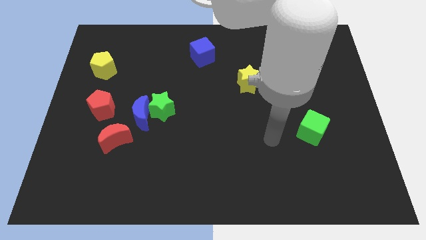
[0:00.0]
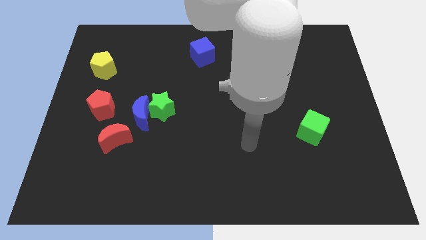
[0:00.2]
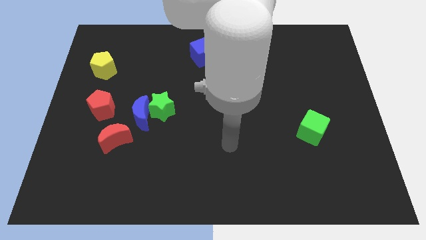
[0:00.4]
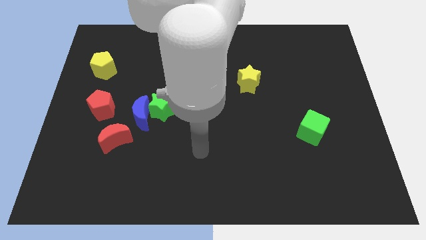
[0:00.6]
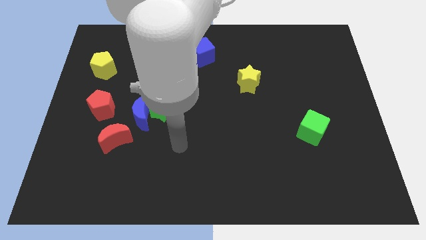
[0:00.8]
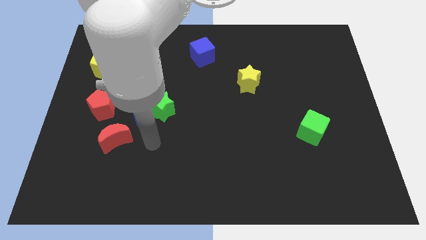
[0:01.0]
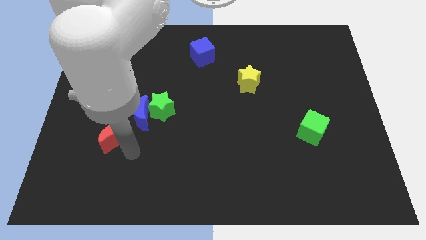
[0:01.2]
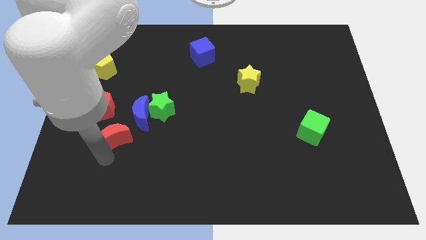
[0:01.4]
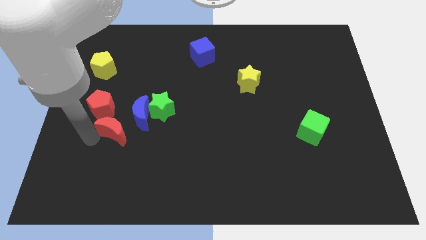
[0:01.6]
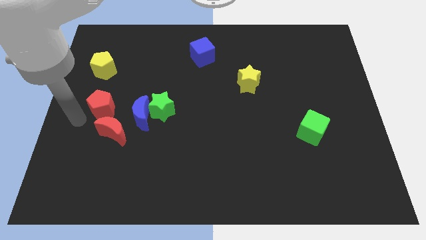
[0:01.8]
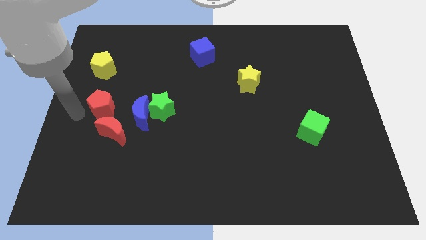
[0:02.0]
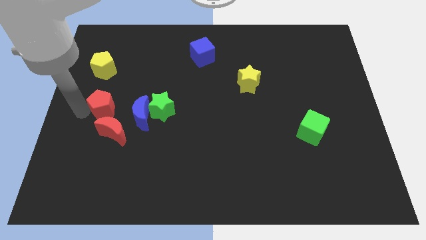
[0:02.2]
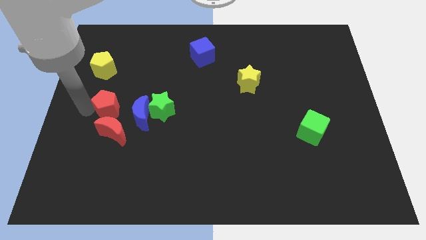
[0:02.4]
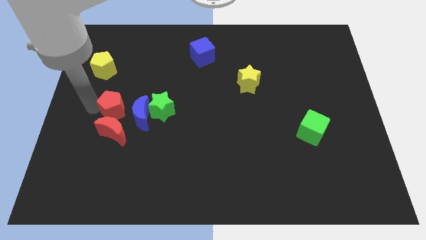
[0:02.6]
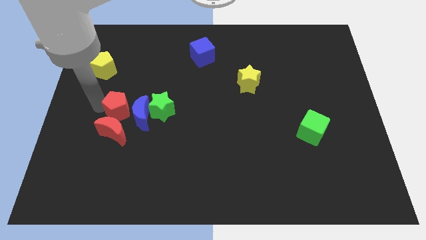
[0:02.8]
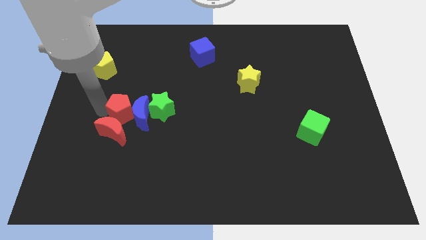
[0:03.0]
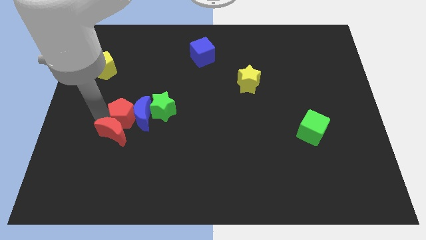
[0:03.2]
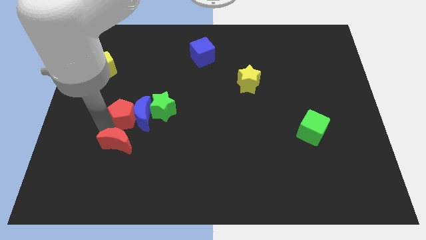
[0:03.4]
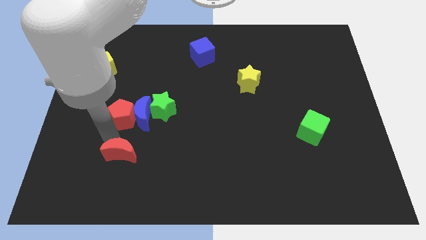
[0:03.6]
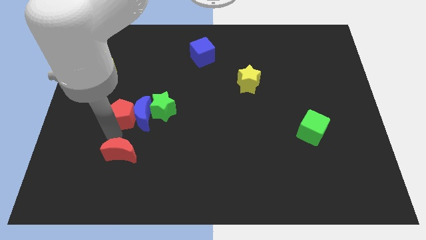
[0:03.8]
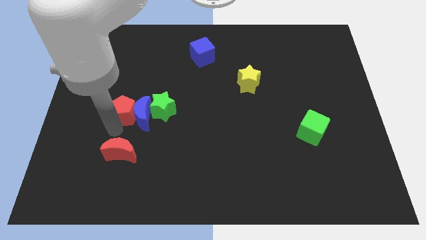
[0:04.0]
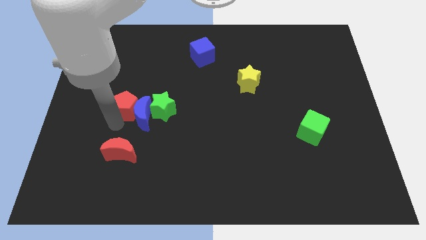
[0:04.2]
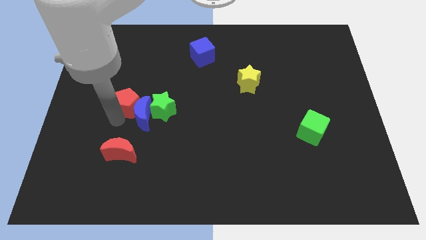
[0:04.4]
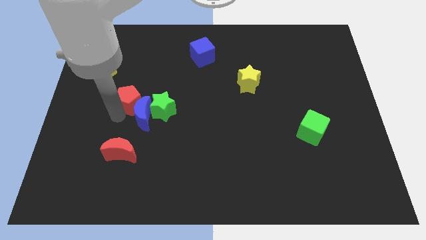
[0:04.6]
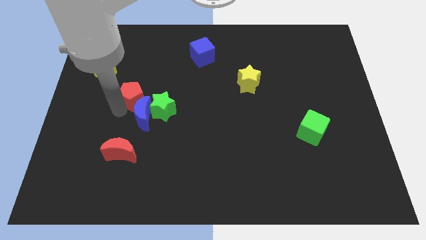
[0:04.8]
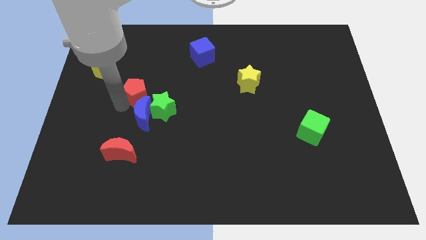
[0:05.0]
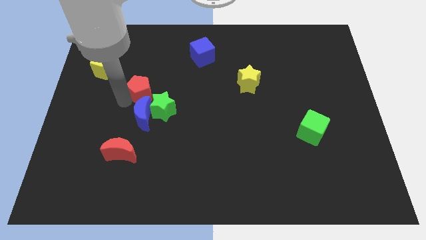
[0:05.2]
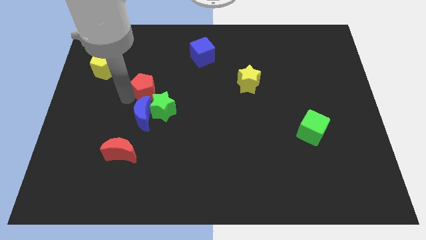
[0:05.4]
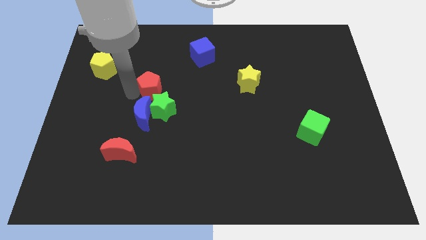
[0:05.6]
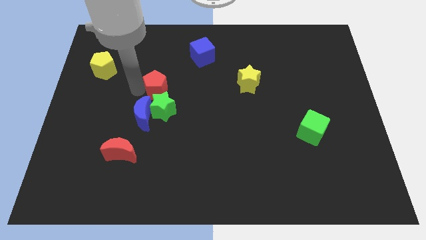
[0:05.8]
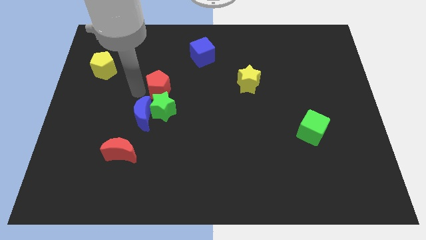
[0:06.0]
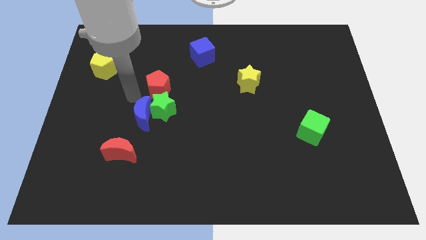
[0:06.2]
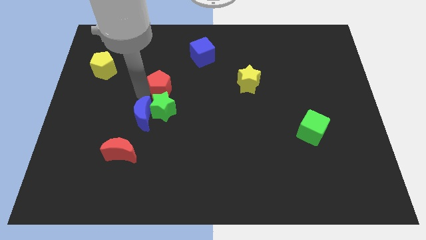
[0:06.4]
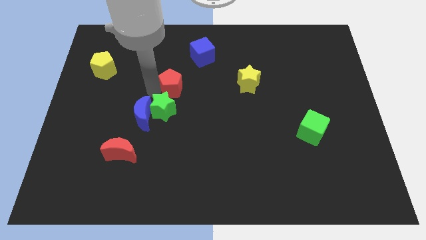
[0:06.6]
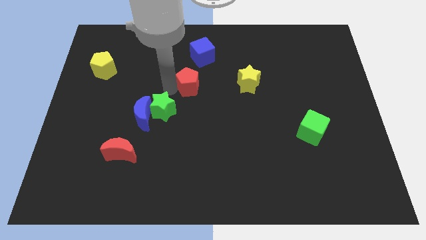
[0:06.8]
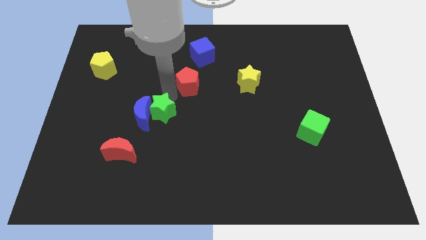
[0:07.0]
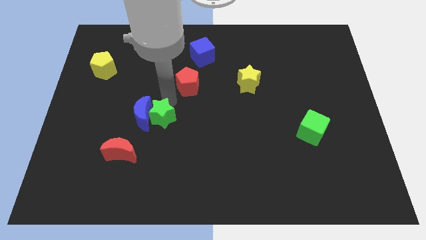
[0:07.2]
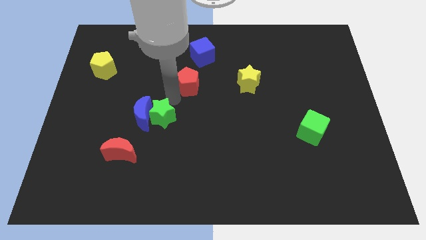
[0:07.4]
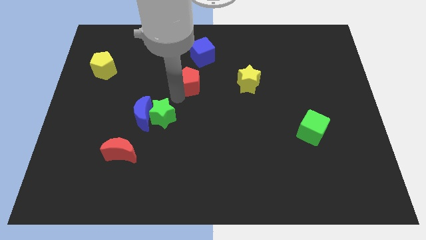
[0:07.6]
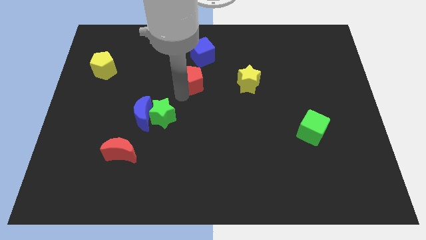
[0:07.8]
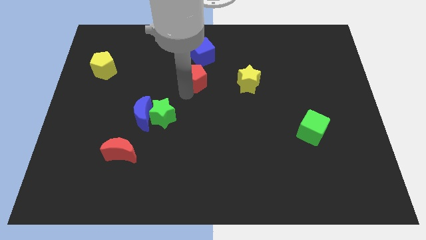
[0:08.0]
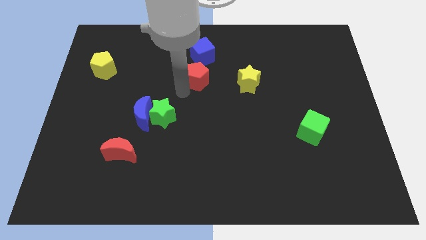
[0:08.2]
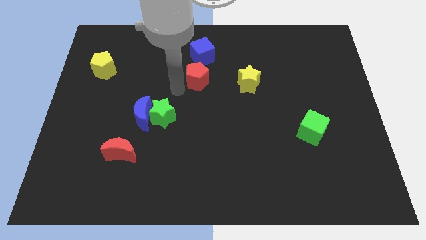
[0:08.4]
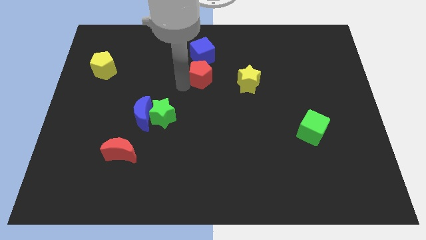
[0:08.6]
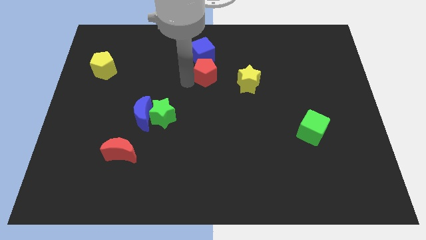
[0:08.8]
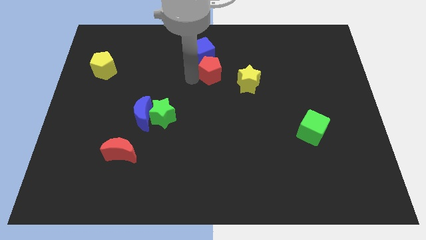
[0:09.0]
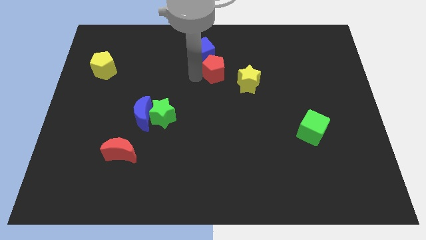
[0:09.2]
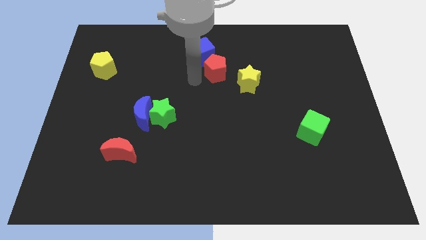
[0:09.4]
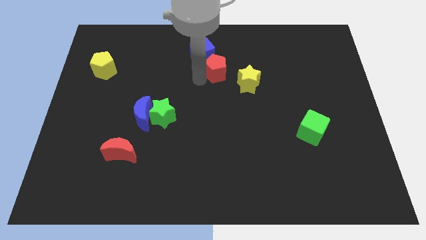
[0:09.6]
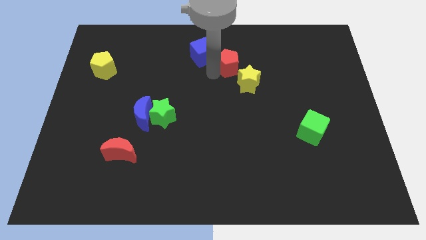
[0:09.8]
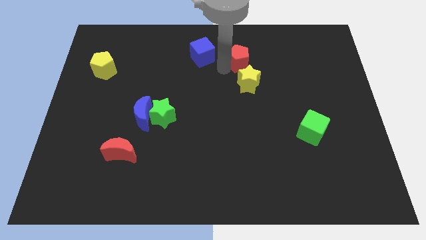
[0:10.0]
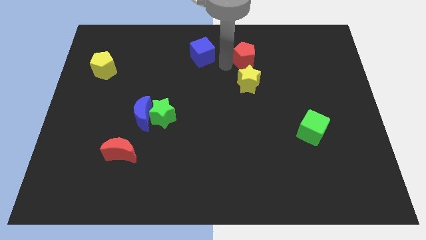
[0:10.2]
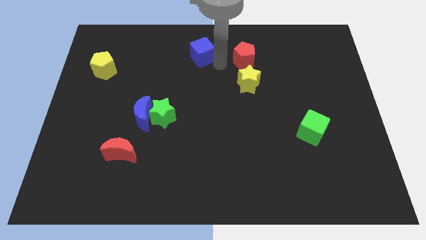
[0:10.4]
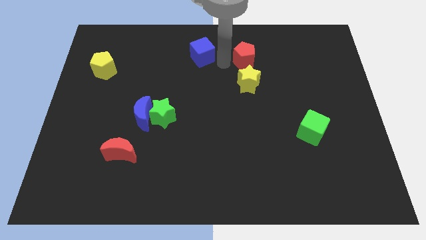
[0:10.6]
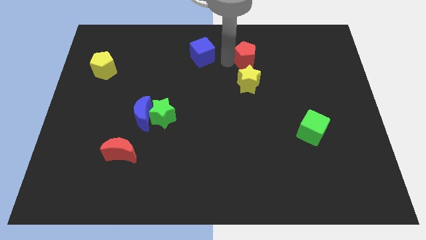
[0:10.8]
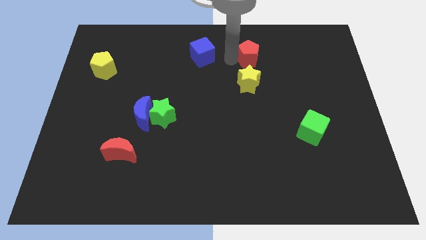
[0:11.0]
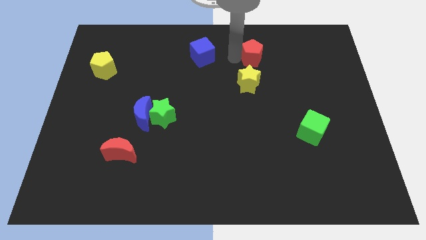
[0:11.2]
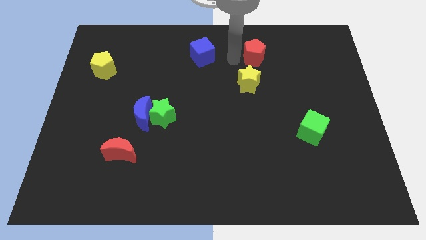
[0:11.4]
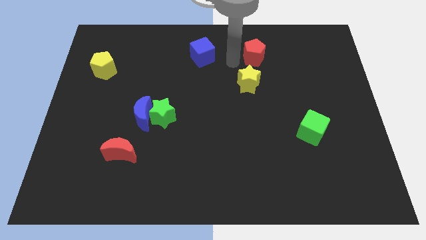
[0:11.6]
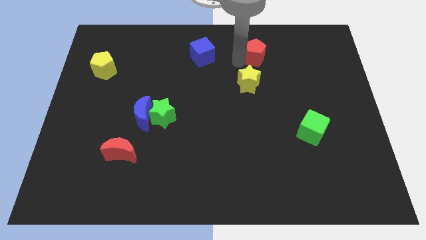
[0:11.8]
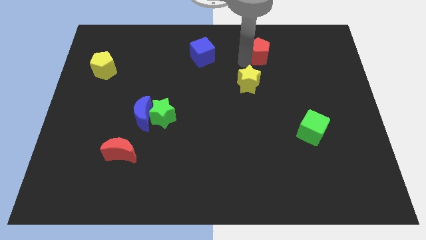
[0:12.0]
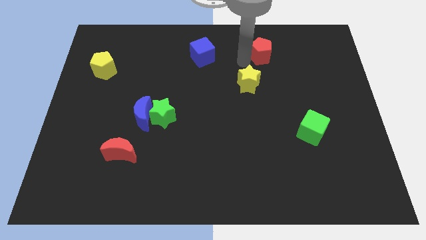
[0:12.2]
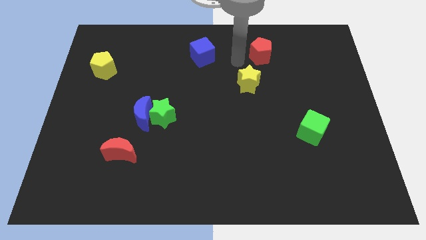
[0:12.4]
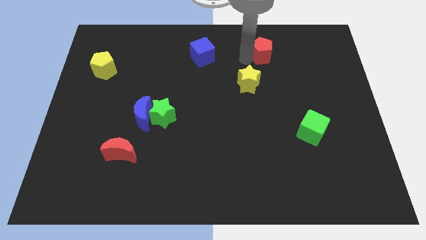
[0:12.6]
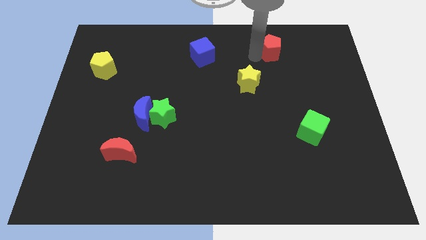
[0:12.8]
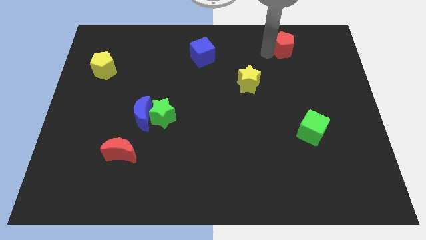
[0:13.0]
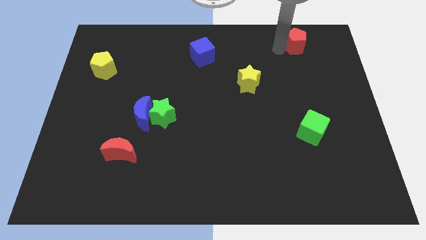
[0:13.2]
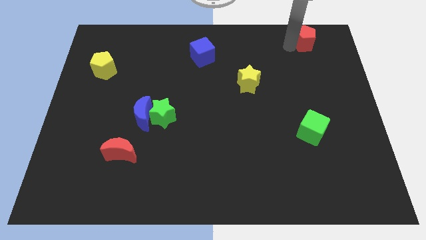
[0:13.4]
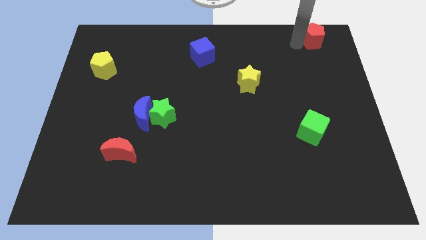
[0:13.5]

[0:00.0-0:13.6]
push the red pentagon to the top right of the board
